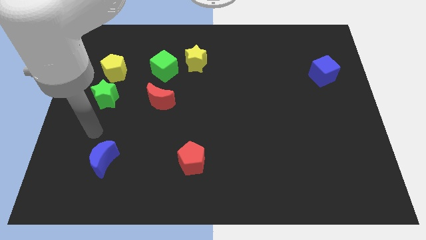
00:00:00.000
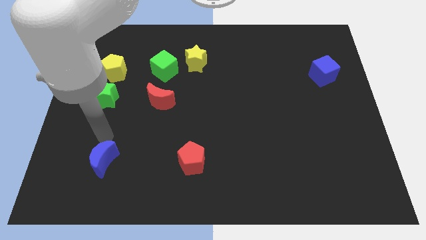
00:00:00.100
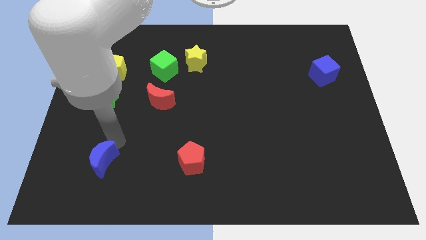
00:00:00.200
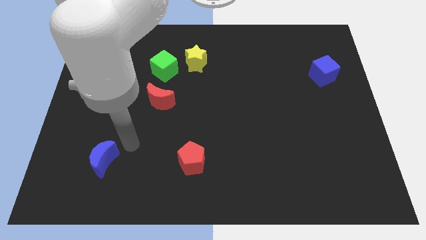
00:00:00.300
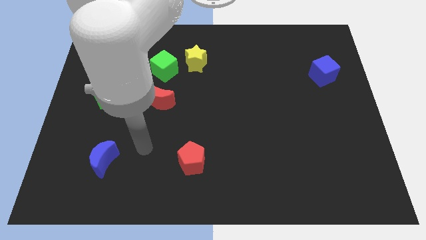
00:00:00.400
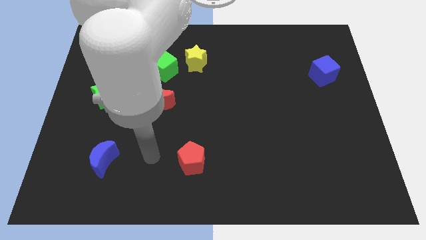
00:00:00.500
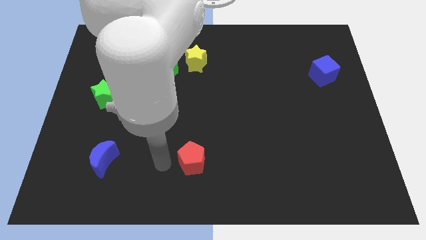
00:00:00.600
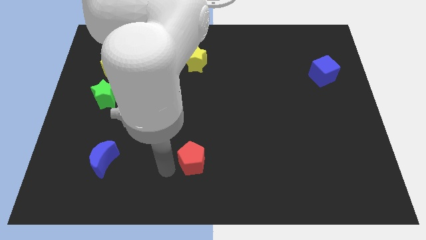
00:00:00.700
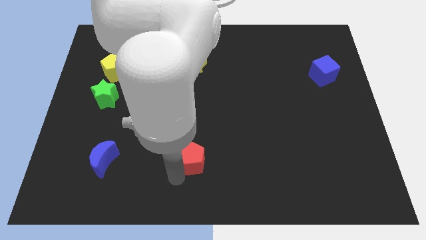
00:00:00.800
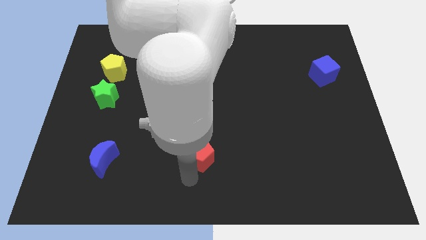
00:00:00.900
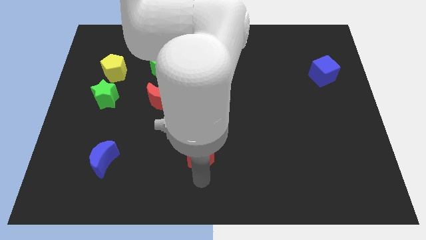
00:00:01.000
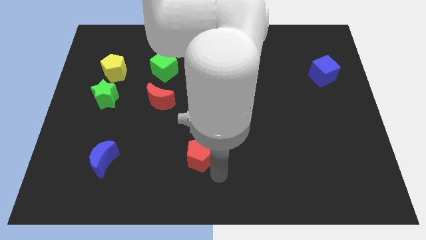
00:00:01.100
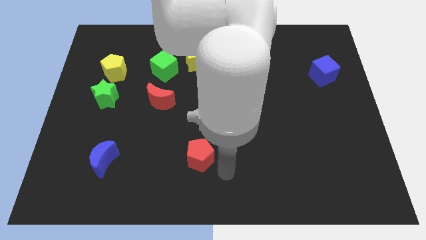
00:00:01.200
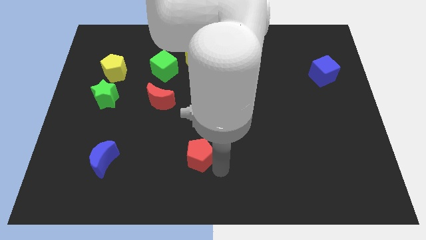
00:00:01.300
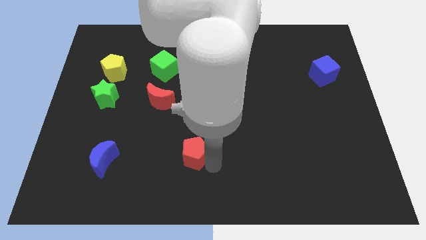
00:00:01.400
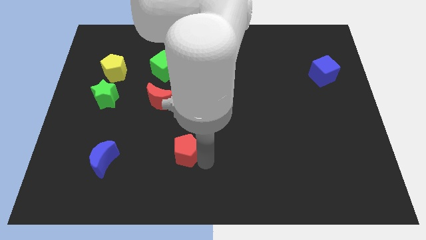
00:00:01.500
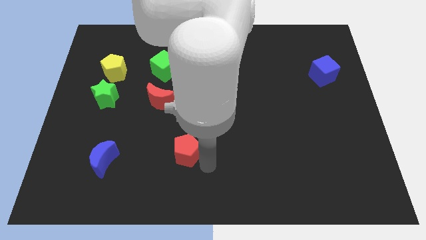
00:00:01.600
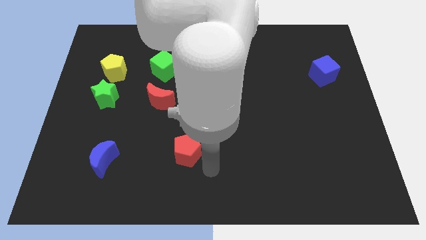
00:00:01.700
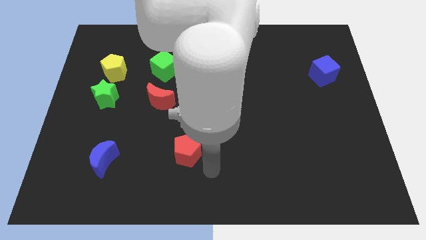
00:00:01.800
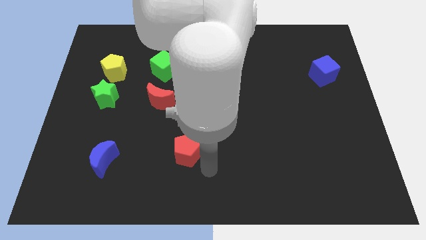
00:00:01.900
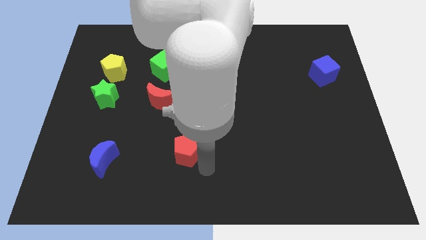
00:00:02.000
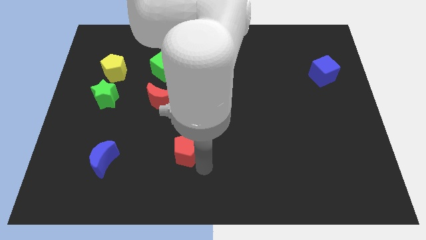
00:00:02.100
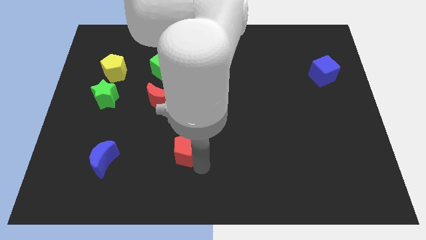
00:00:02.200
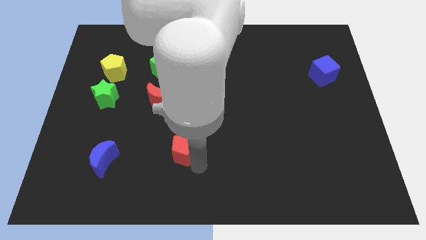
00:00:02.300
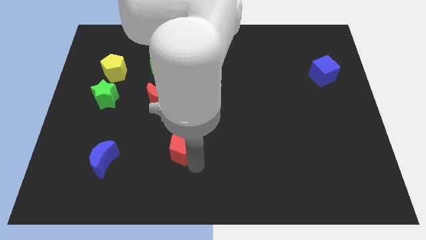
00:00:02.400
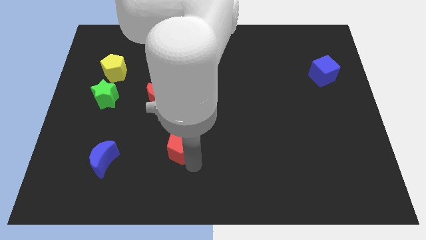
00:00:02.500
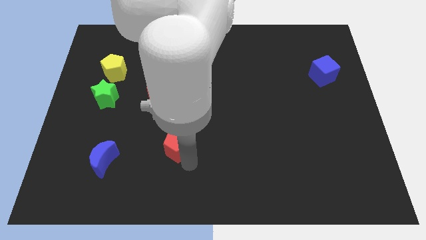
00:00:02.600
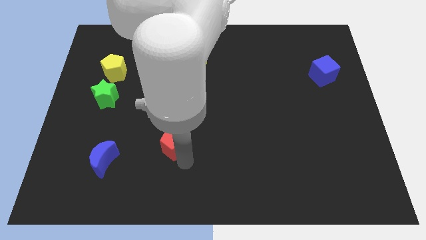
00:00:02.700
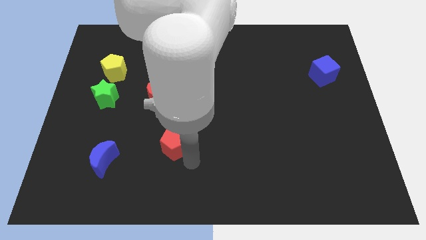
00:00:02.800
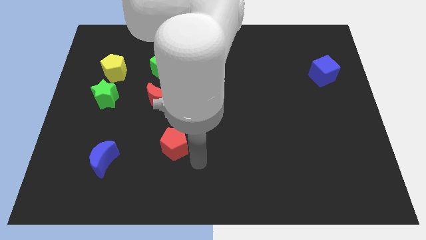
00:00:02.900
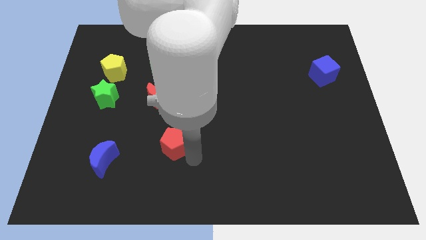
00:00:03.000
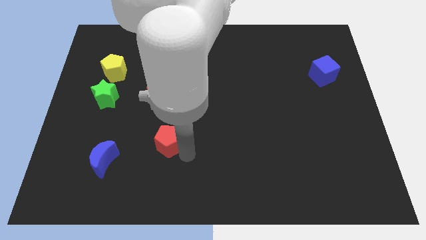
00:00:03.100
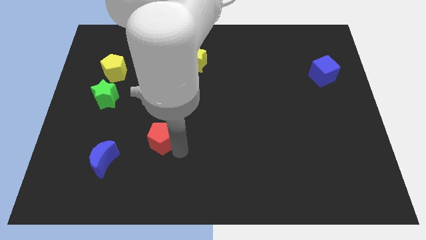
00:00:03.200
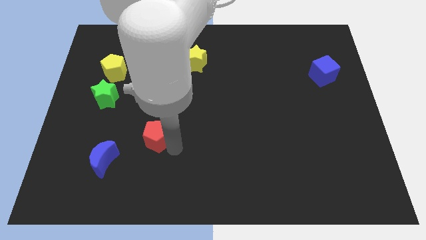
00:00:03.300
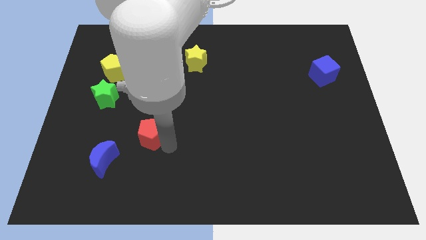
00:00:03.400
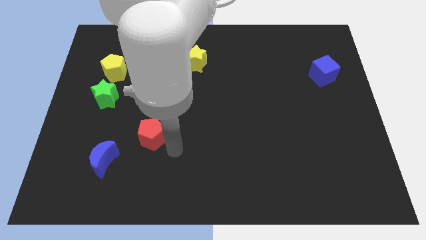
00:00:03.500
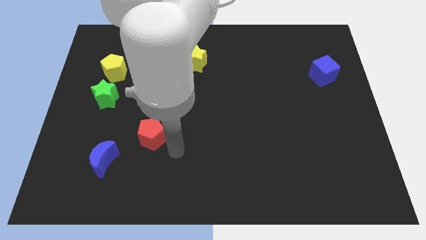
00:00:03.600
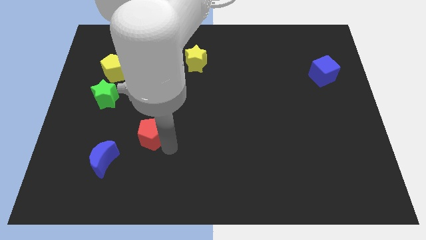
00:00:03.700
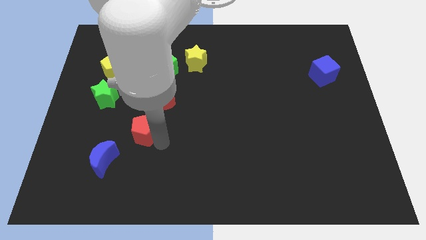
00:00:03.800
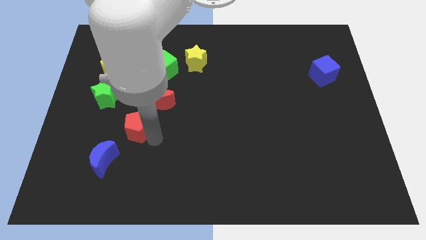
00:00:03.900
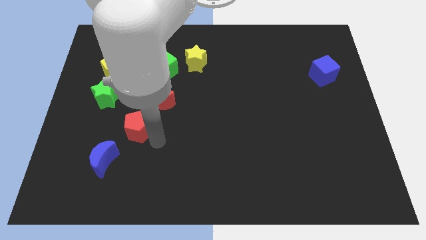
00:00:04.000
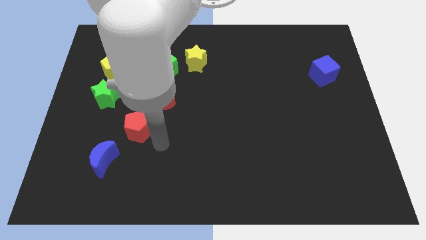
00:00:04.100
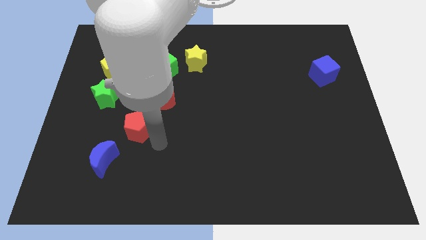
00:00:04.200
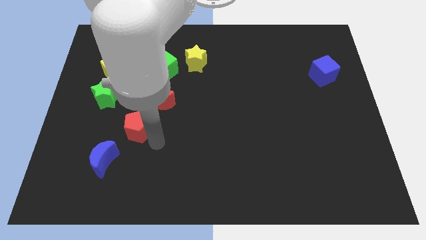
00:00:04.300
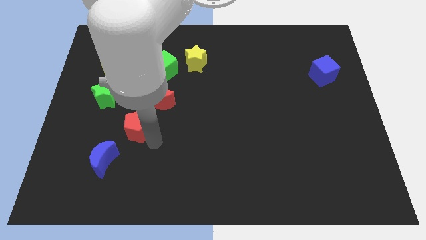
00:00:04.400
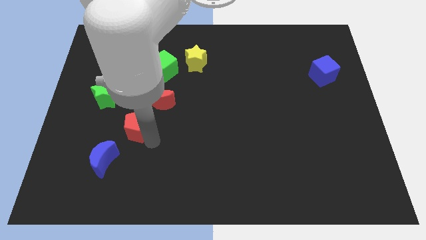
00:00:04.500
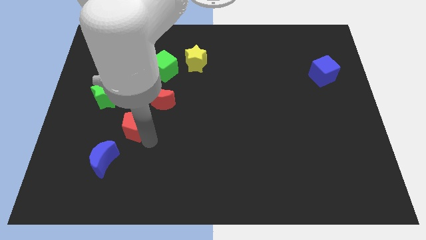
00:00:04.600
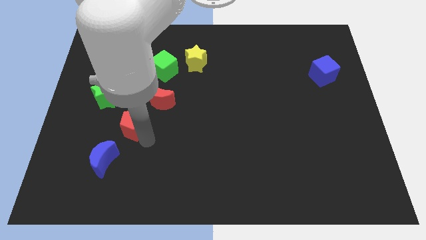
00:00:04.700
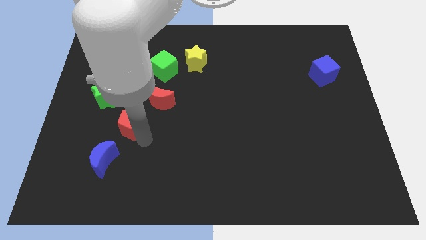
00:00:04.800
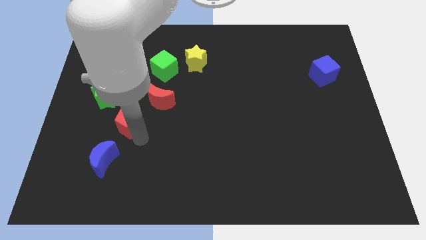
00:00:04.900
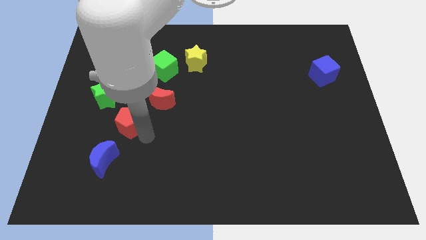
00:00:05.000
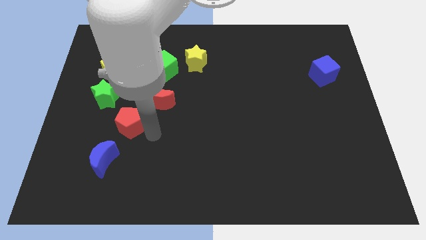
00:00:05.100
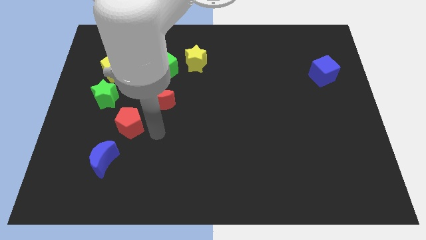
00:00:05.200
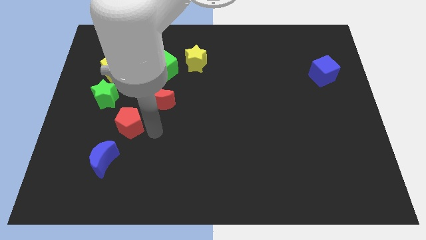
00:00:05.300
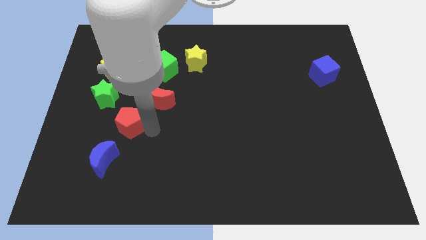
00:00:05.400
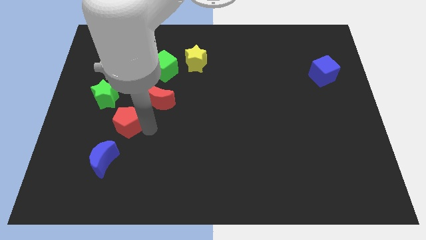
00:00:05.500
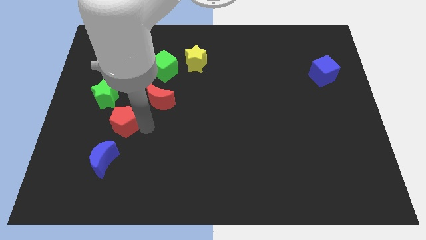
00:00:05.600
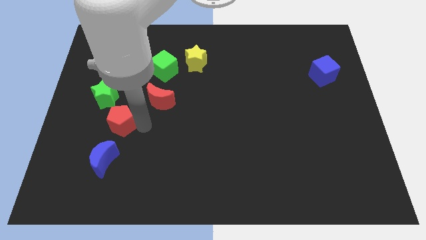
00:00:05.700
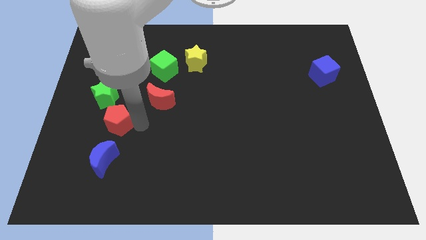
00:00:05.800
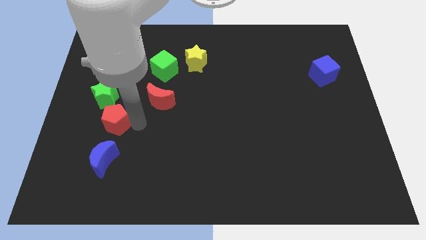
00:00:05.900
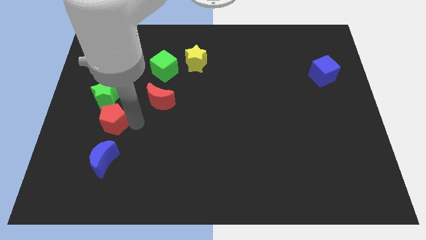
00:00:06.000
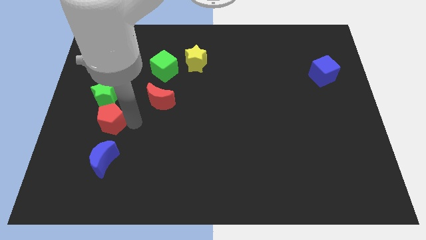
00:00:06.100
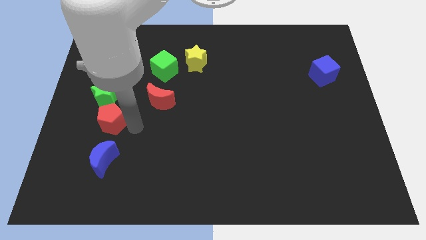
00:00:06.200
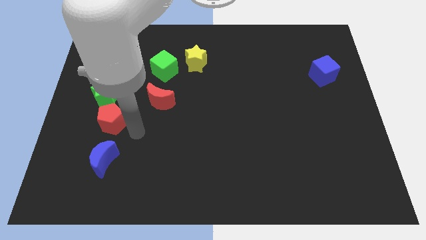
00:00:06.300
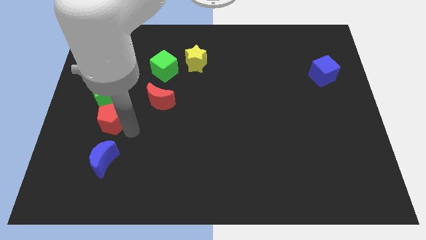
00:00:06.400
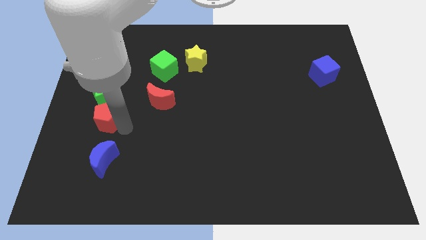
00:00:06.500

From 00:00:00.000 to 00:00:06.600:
push the red pentagon diagonally upwards and left

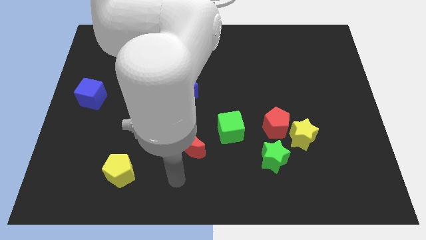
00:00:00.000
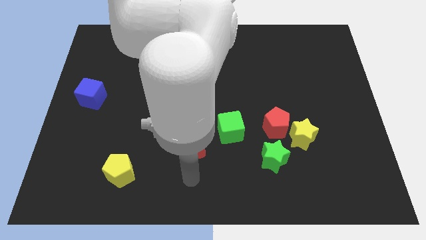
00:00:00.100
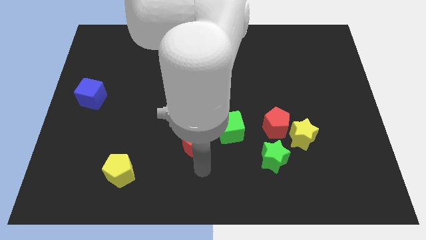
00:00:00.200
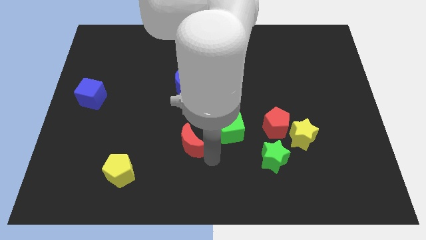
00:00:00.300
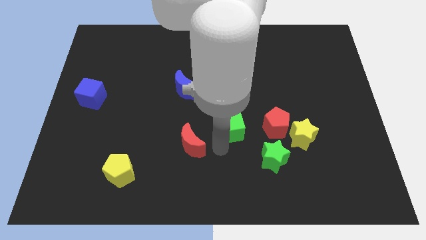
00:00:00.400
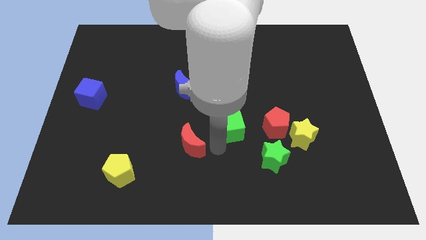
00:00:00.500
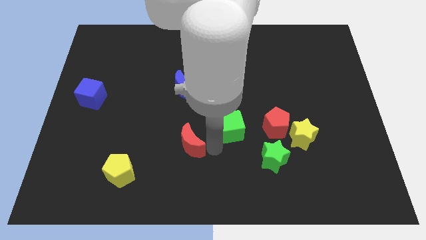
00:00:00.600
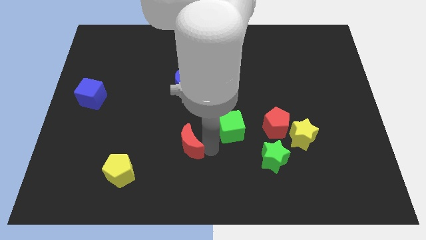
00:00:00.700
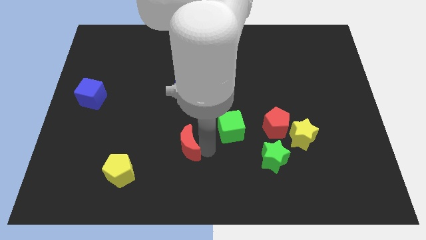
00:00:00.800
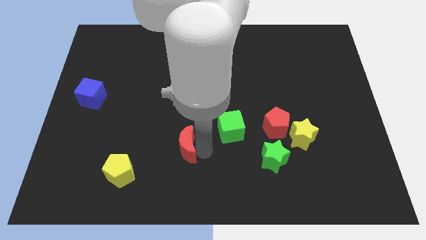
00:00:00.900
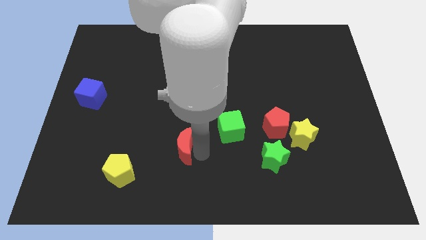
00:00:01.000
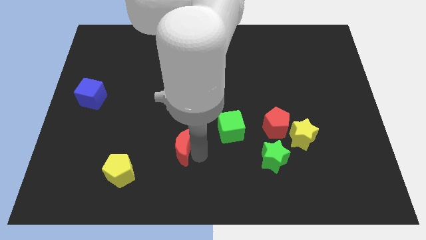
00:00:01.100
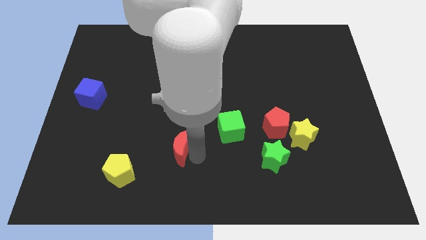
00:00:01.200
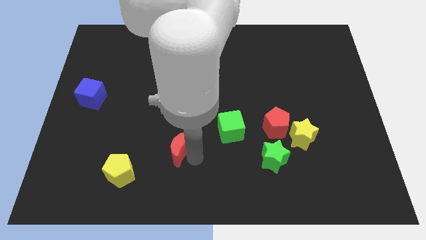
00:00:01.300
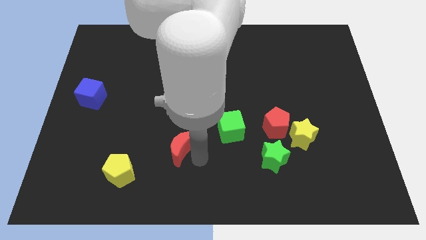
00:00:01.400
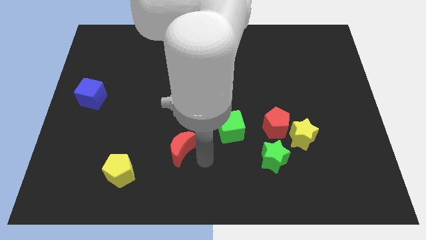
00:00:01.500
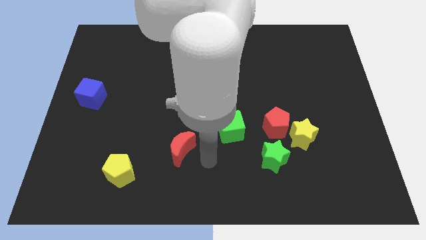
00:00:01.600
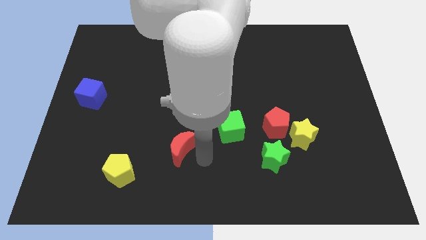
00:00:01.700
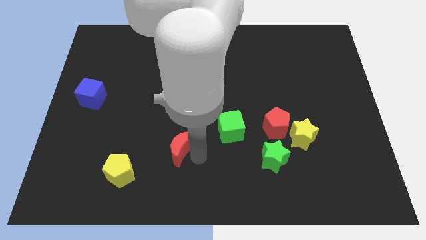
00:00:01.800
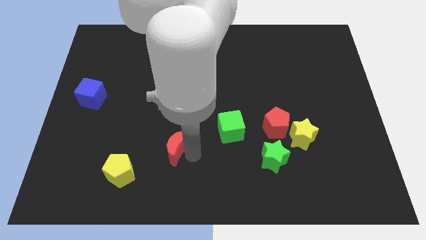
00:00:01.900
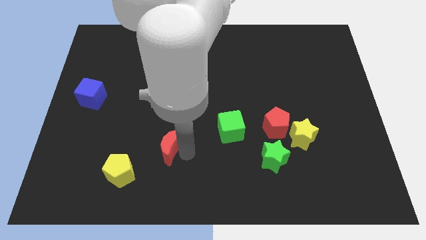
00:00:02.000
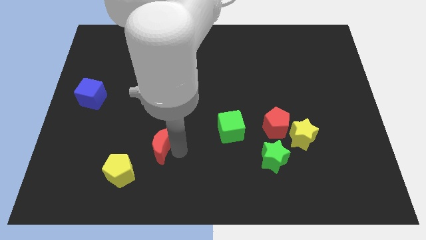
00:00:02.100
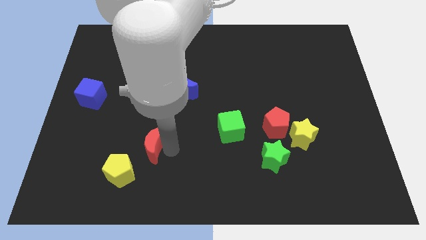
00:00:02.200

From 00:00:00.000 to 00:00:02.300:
push the red moon a bit left
